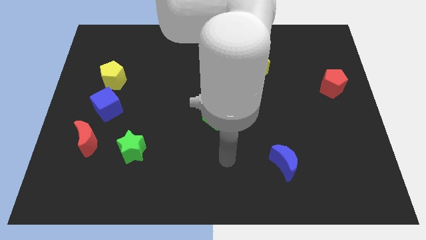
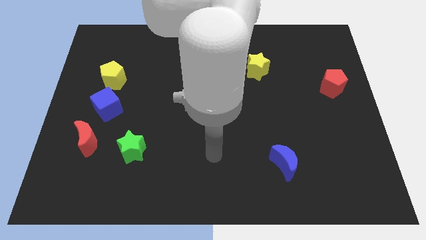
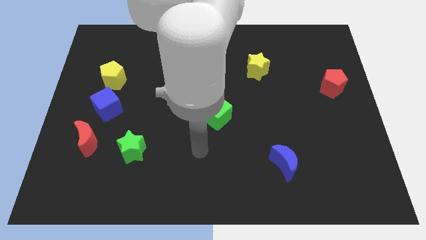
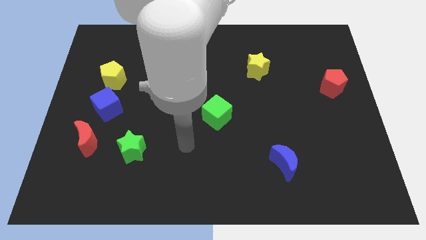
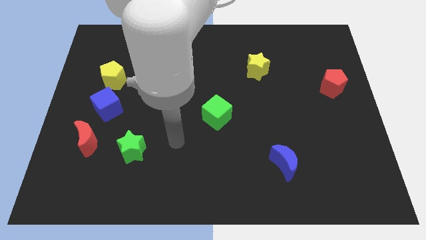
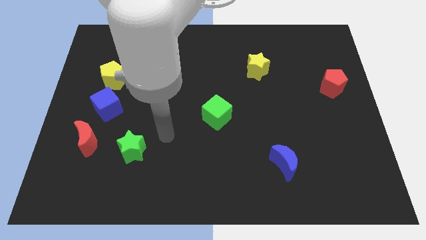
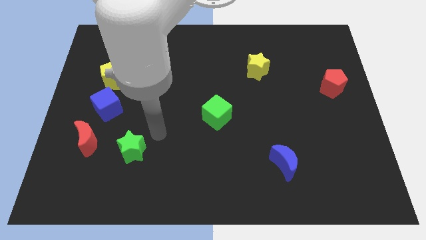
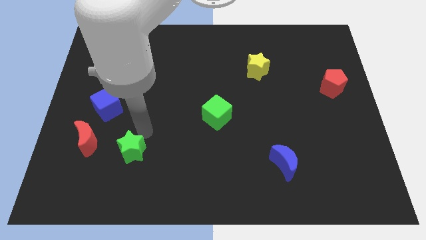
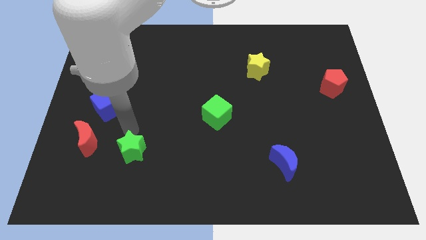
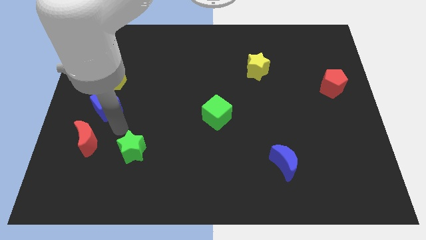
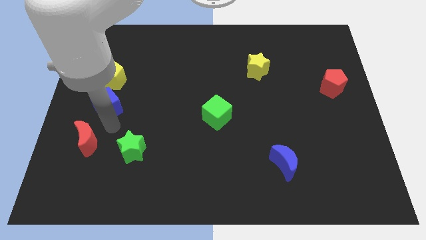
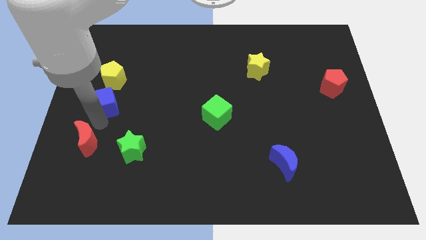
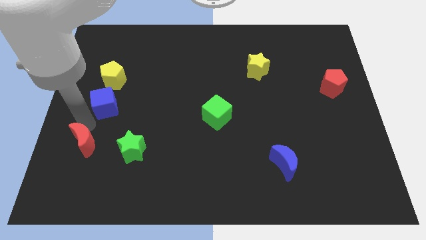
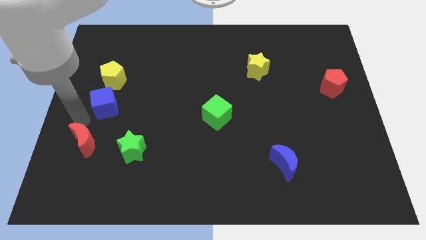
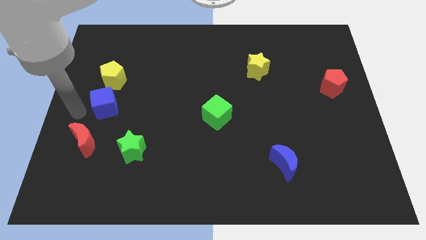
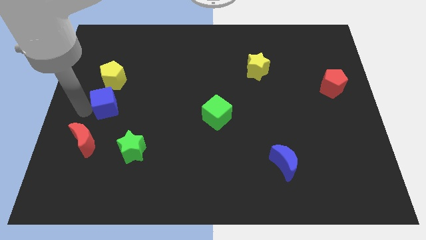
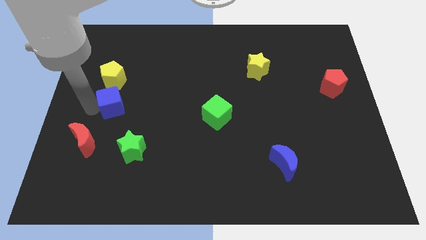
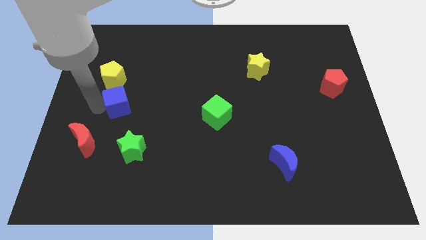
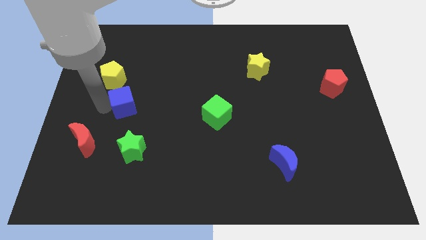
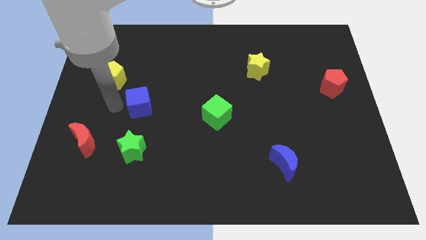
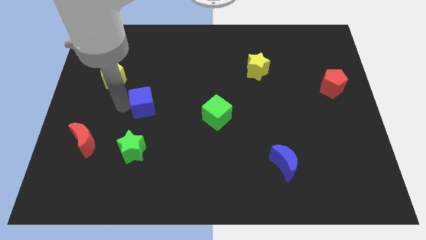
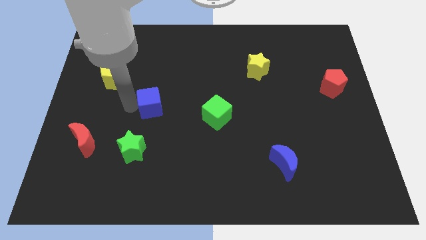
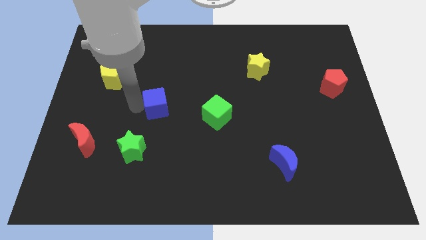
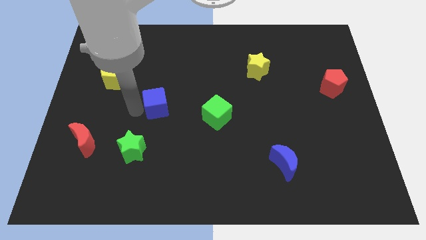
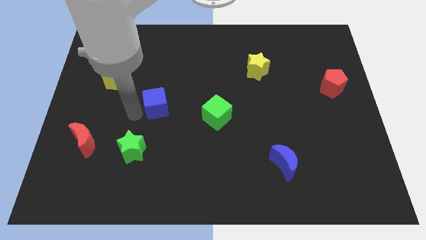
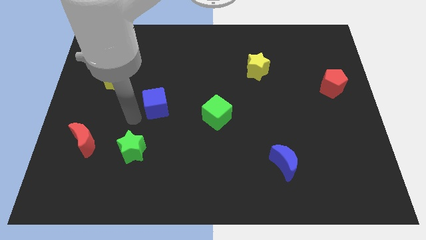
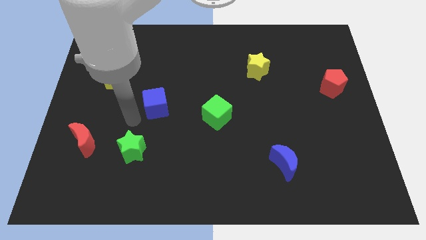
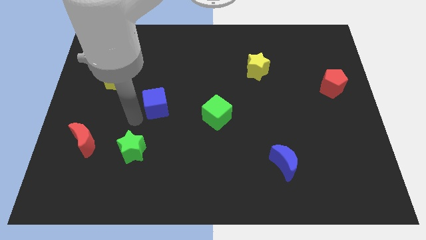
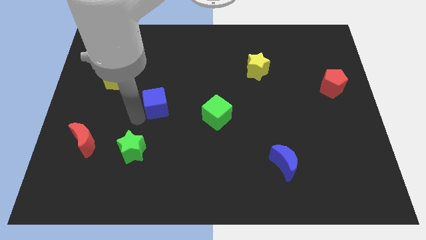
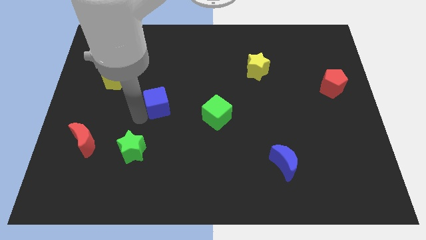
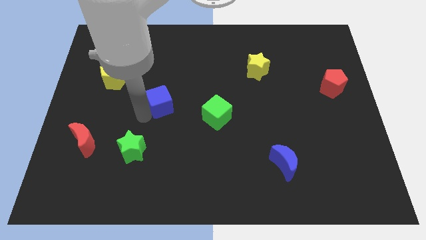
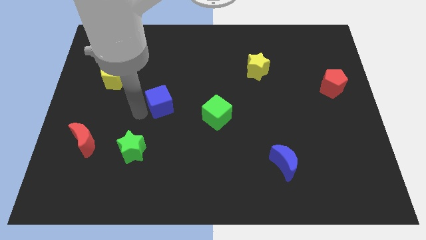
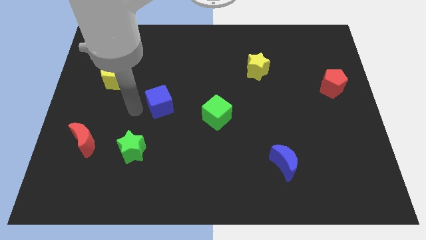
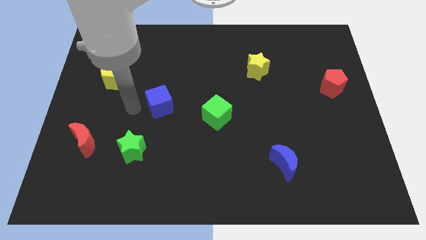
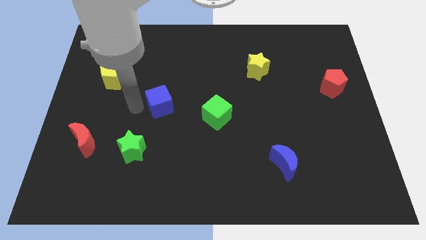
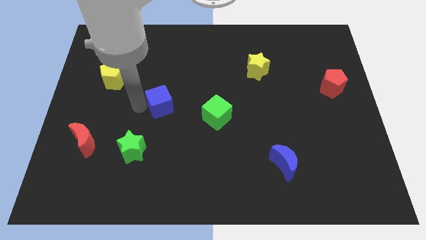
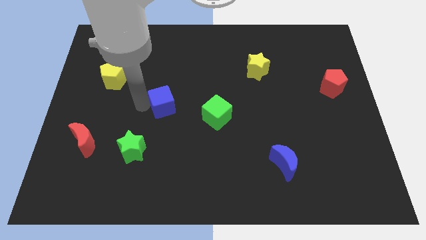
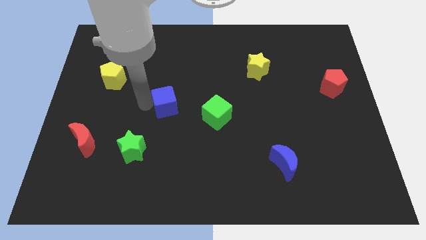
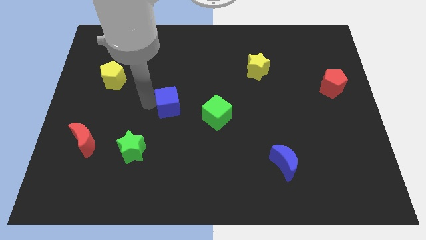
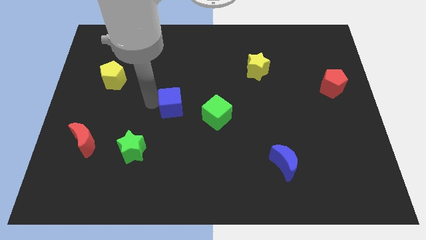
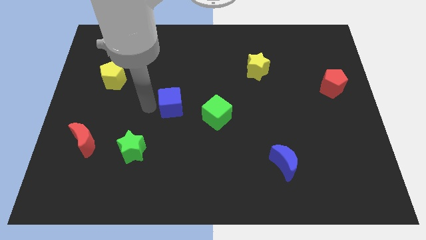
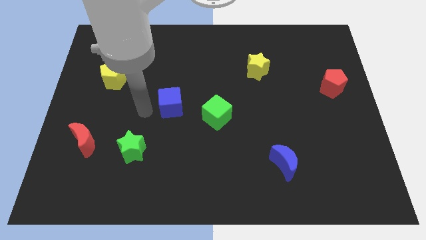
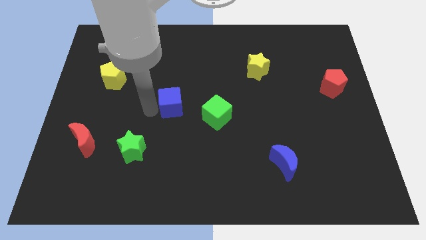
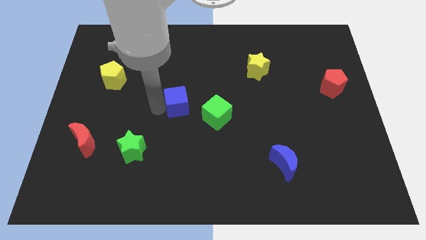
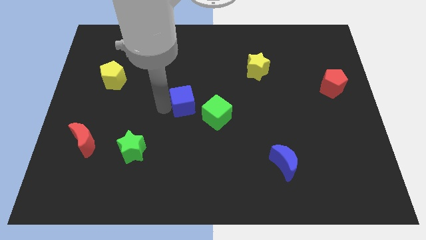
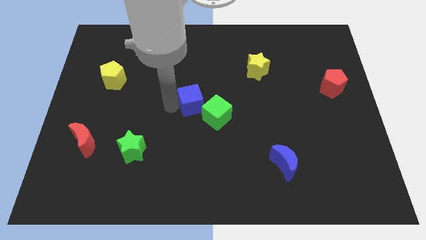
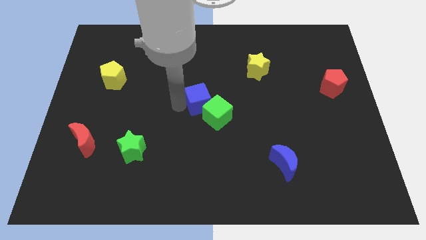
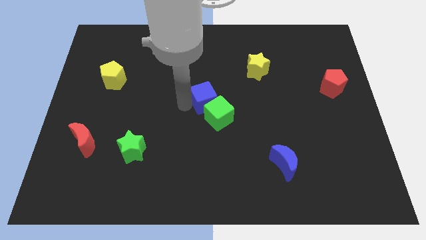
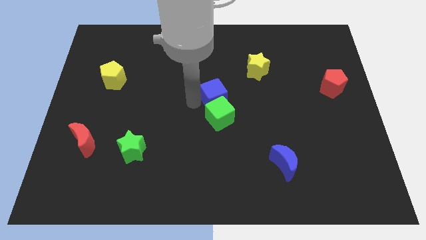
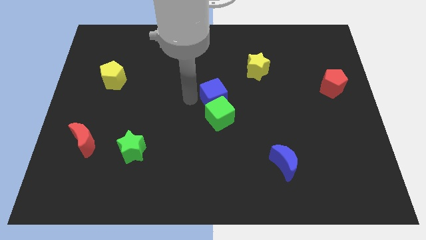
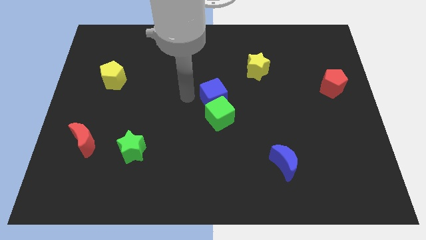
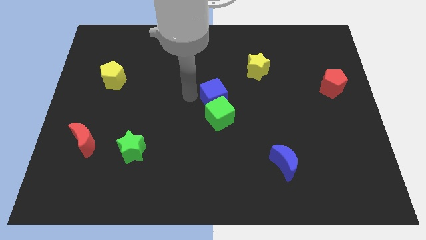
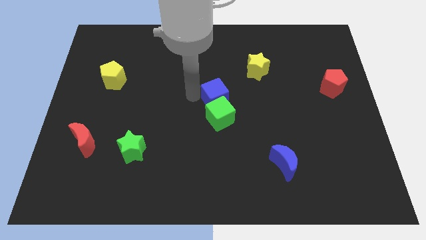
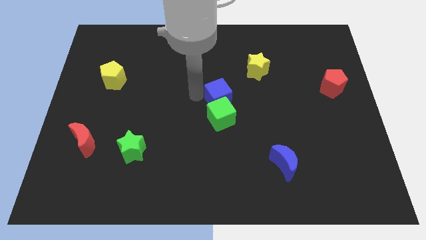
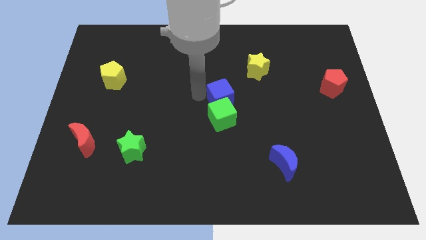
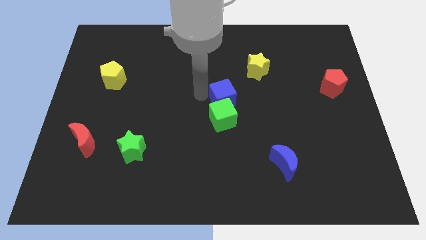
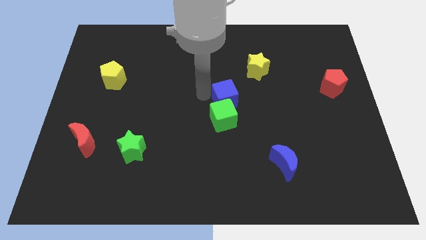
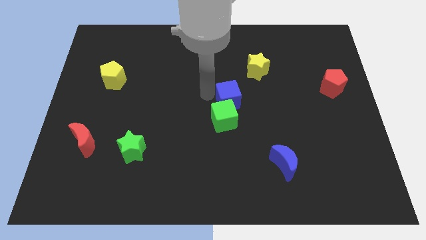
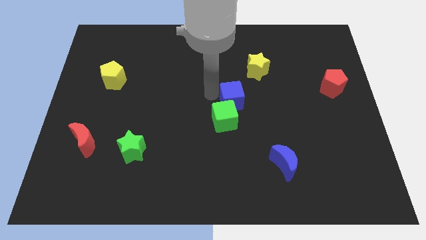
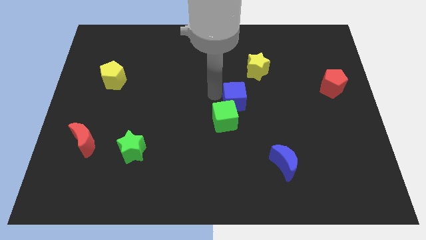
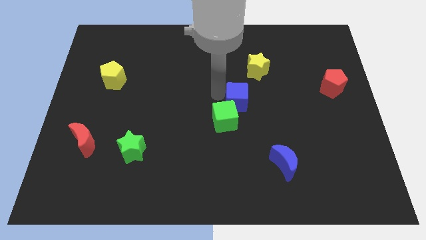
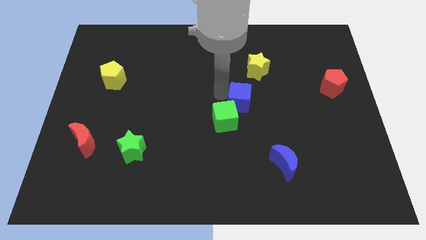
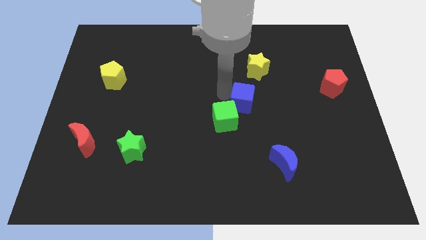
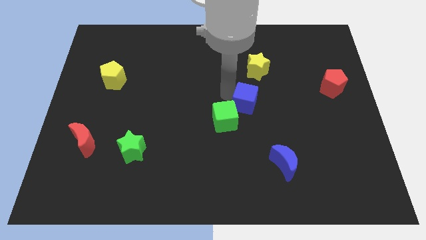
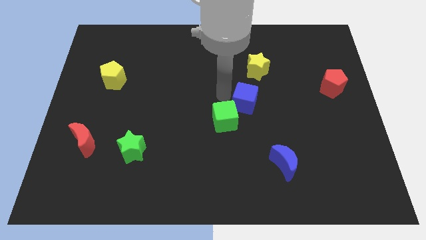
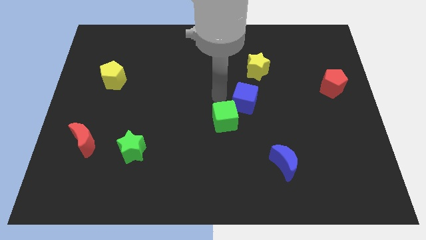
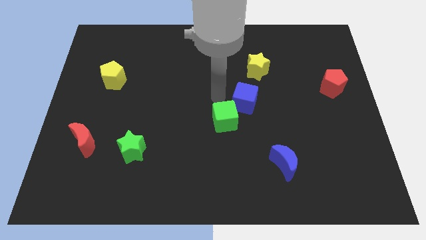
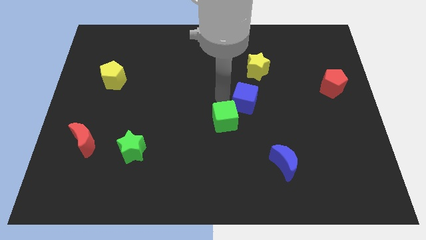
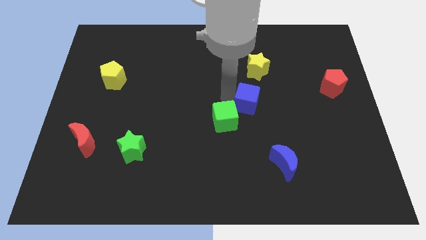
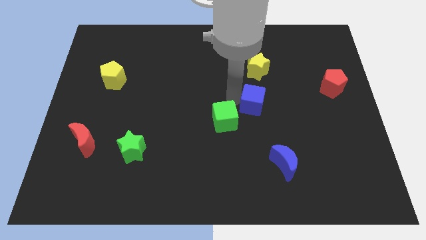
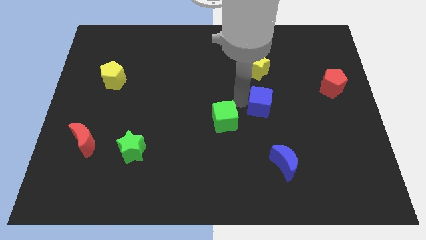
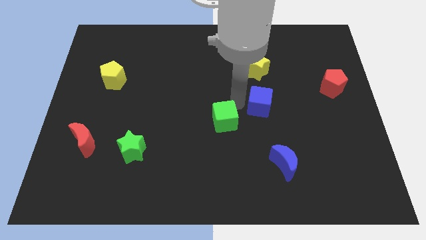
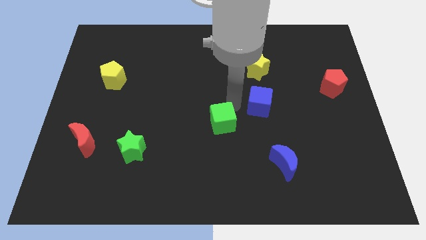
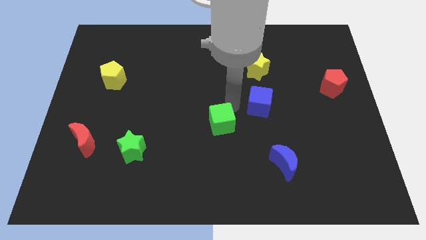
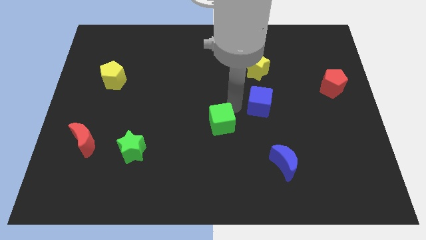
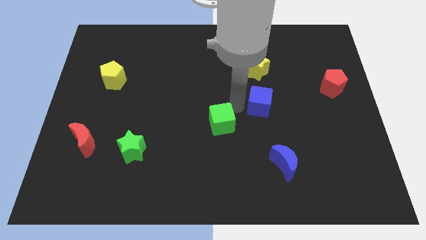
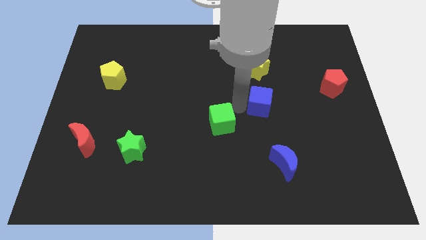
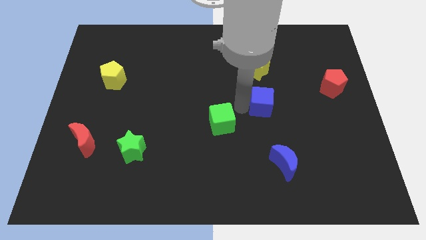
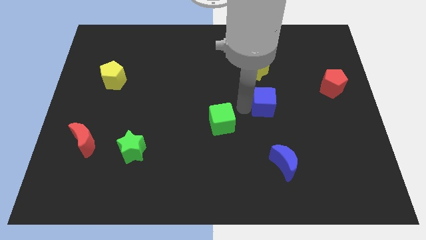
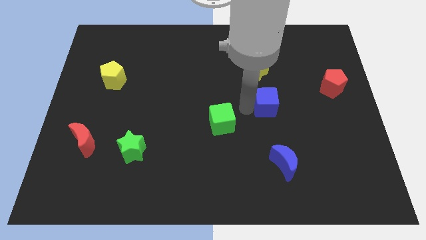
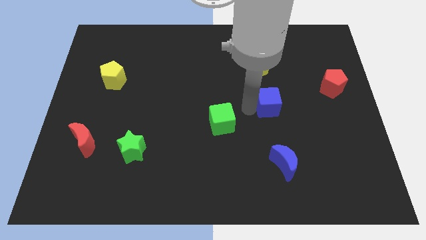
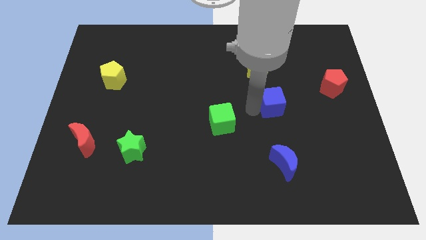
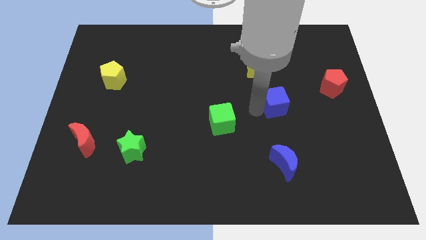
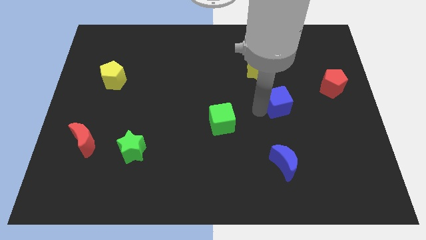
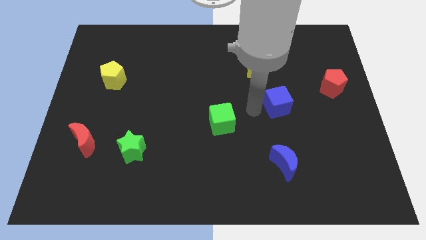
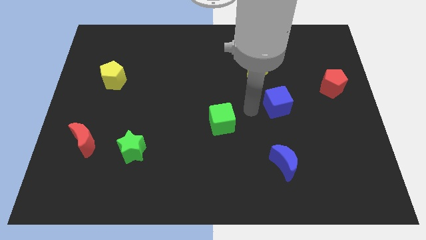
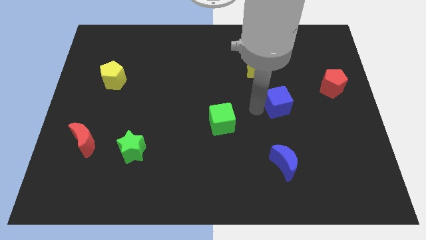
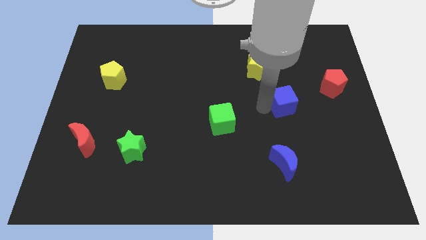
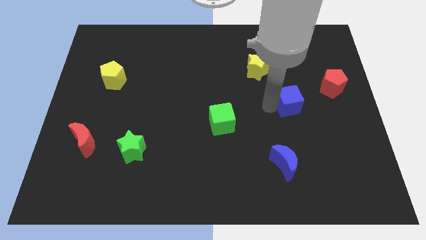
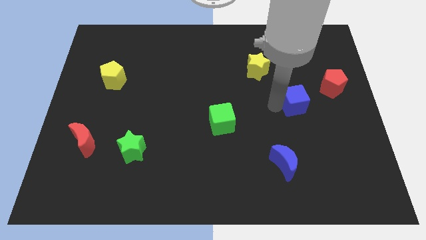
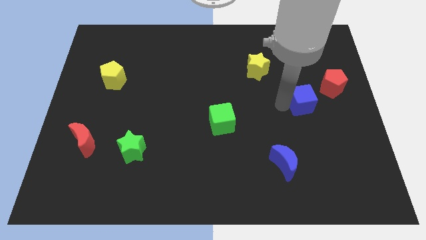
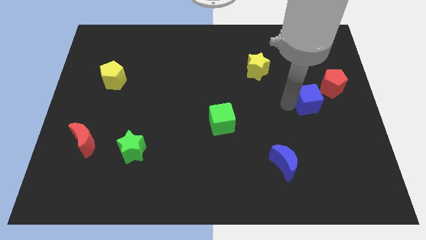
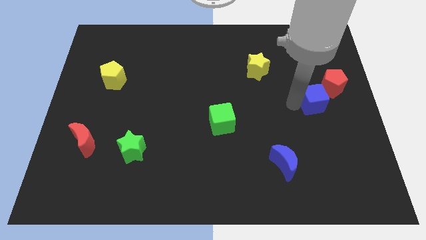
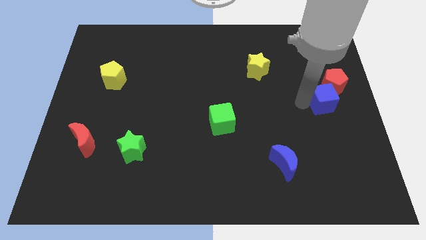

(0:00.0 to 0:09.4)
put the blue cube to the right side of the board
